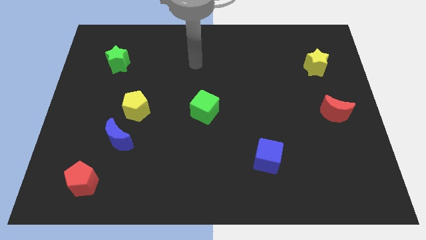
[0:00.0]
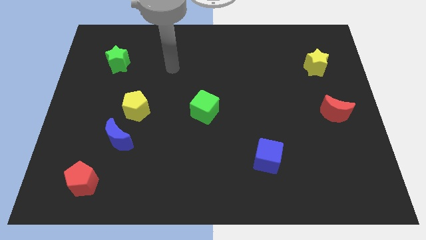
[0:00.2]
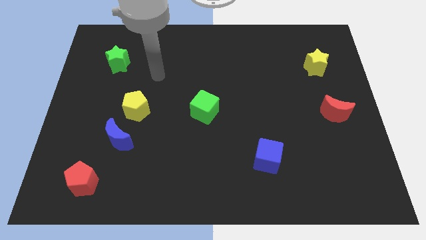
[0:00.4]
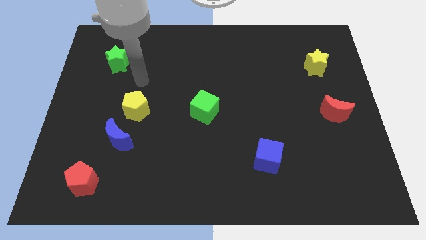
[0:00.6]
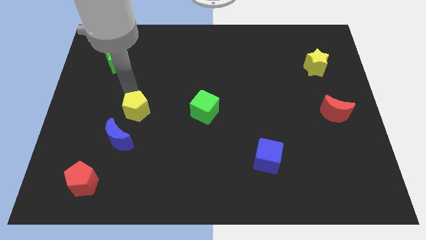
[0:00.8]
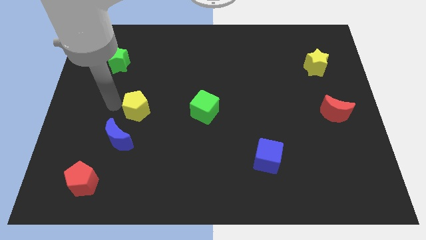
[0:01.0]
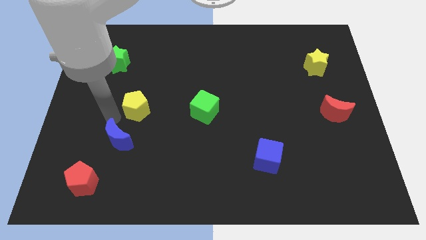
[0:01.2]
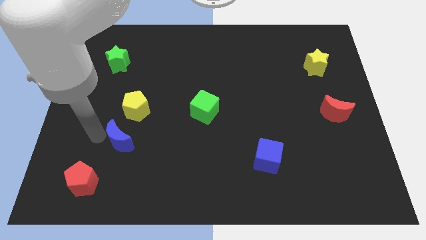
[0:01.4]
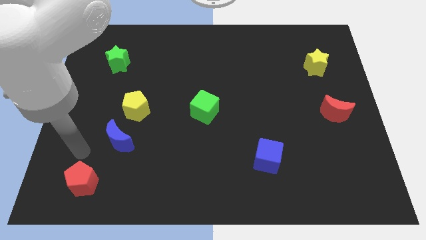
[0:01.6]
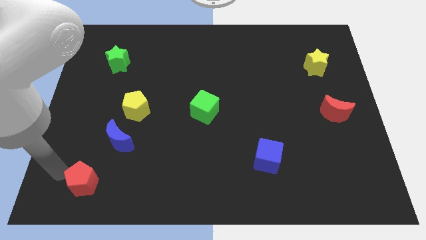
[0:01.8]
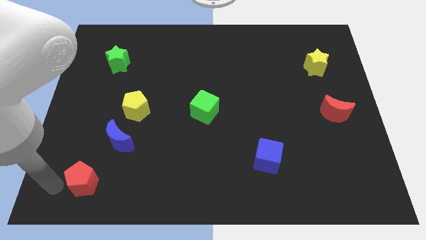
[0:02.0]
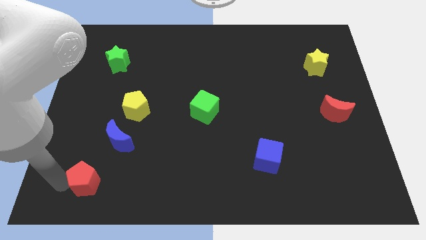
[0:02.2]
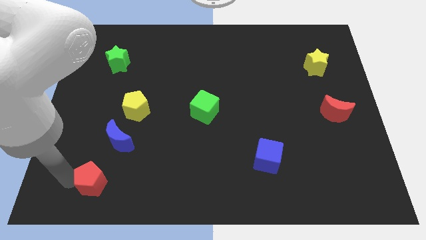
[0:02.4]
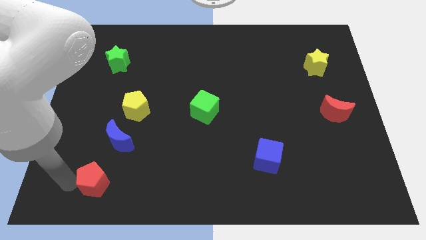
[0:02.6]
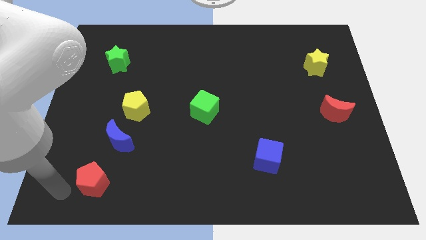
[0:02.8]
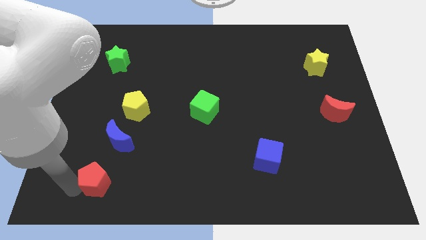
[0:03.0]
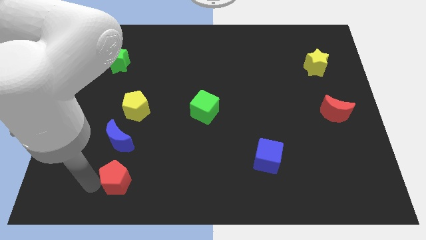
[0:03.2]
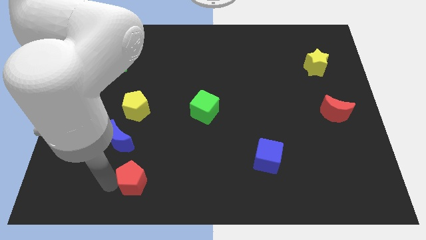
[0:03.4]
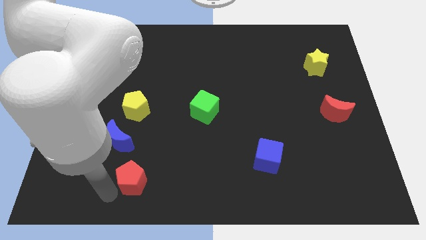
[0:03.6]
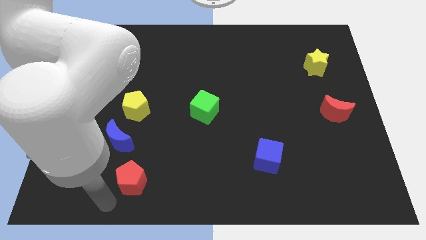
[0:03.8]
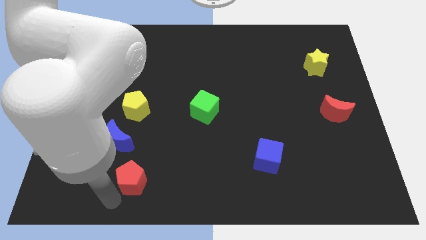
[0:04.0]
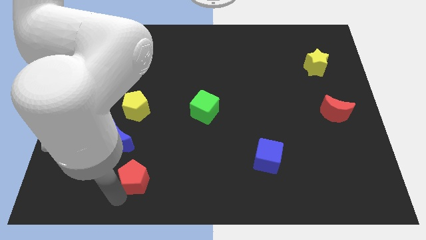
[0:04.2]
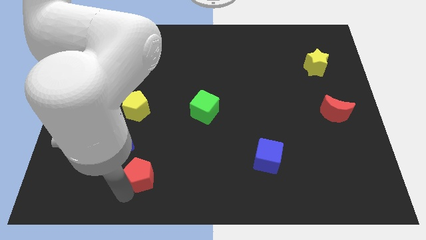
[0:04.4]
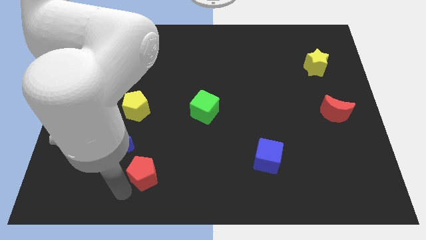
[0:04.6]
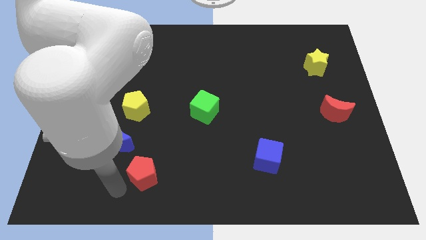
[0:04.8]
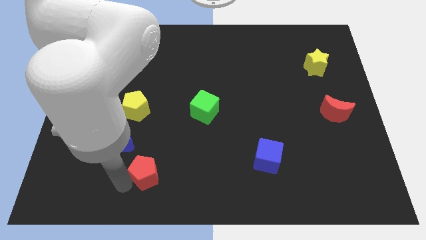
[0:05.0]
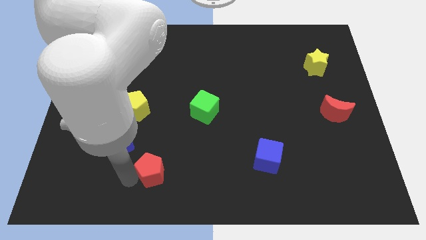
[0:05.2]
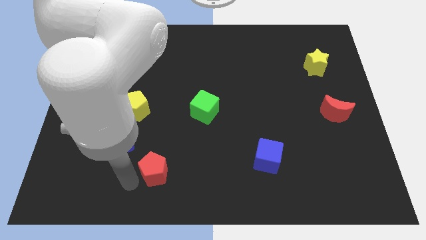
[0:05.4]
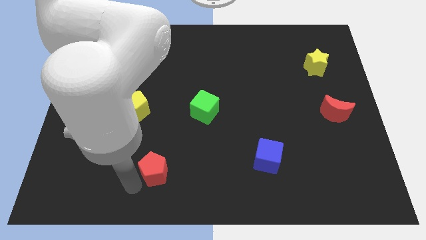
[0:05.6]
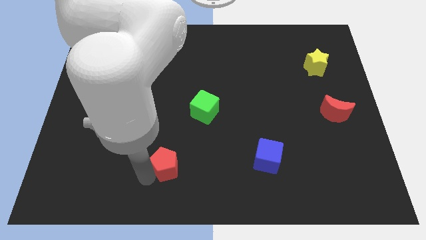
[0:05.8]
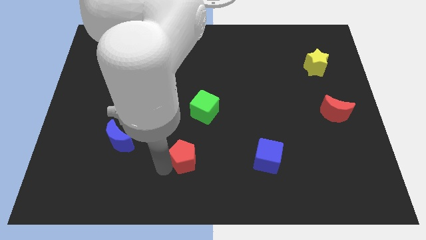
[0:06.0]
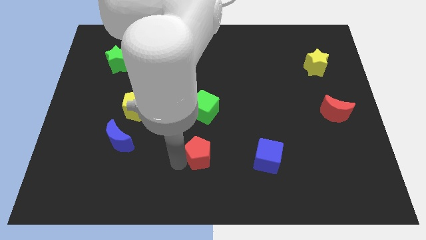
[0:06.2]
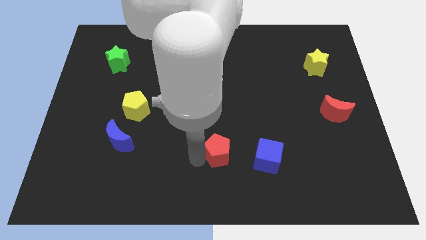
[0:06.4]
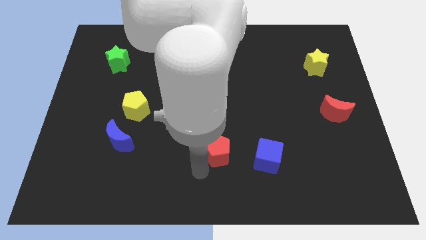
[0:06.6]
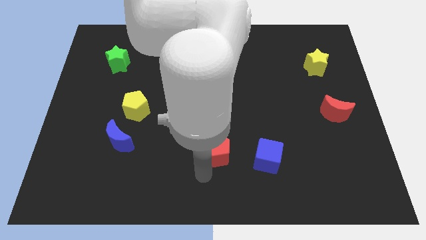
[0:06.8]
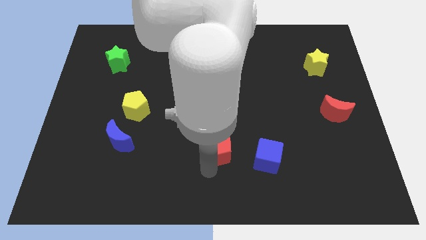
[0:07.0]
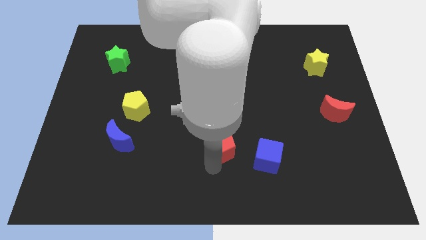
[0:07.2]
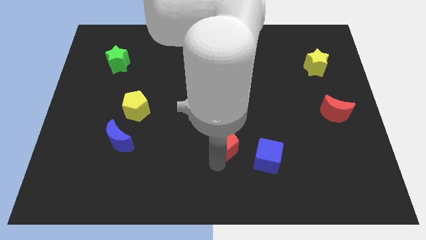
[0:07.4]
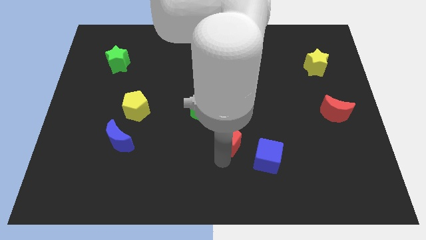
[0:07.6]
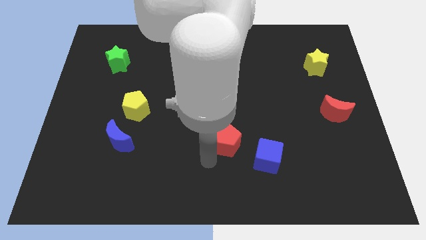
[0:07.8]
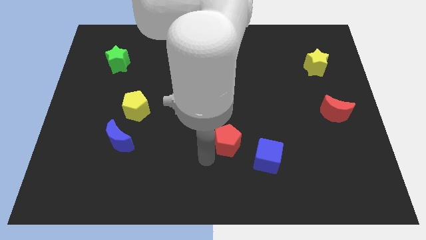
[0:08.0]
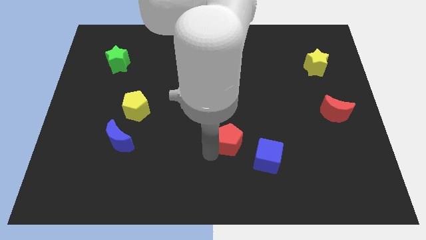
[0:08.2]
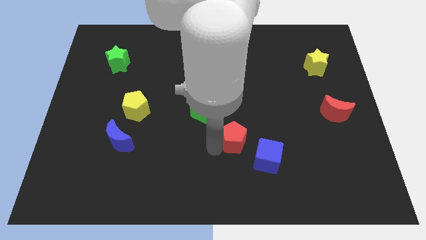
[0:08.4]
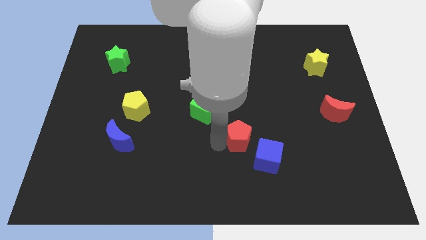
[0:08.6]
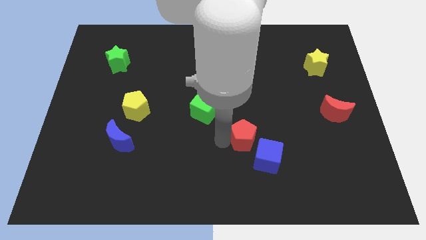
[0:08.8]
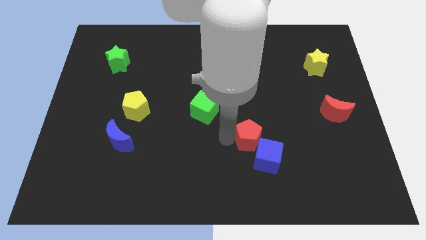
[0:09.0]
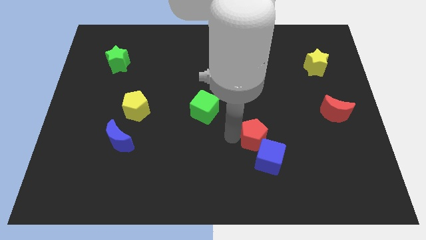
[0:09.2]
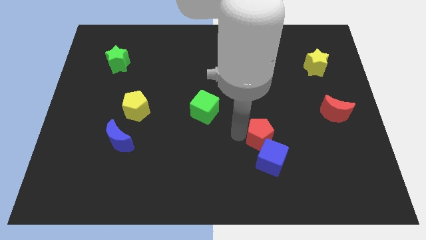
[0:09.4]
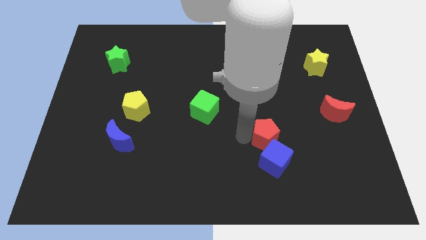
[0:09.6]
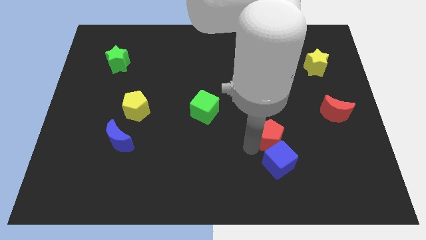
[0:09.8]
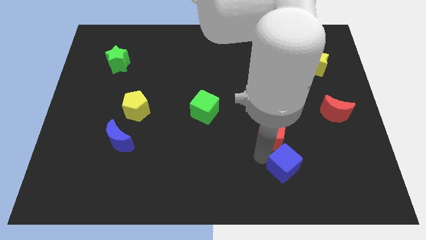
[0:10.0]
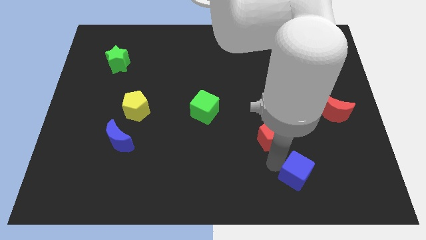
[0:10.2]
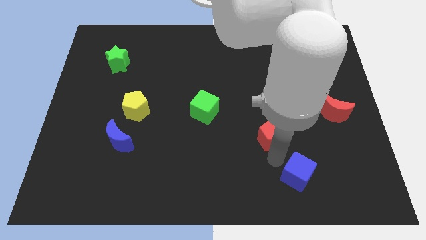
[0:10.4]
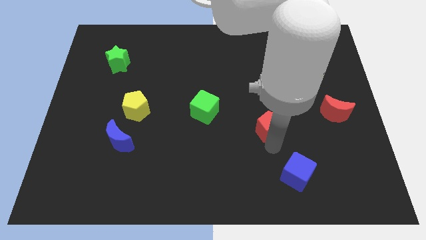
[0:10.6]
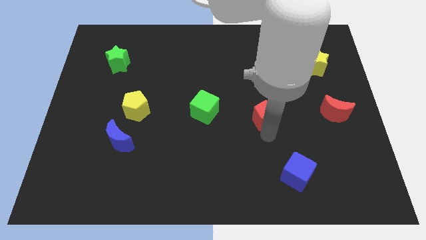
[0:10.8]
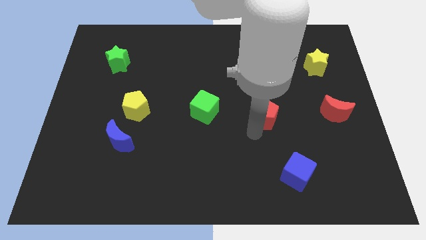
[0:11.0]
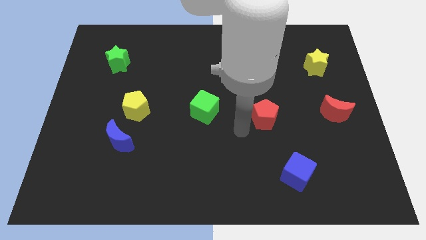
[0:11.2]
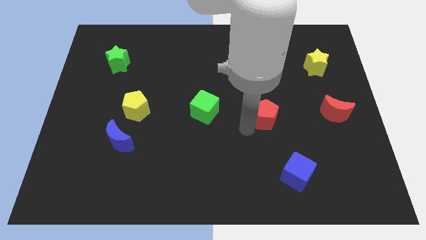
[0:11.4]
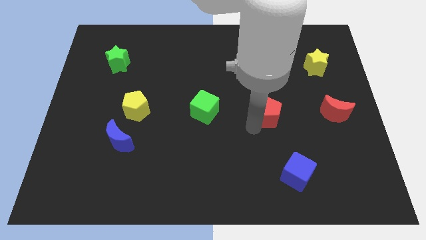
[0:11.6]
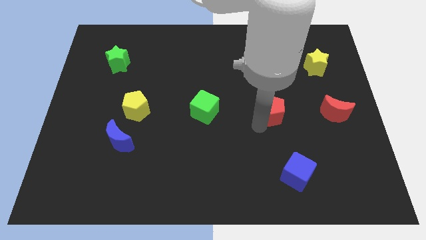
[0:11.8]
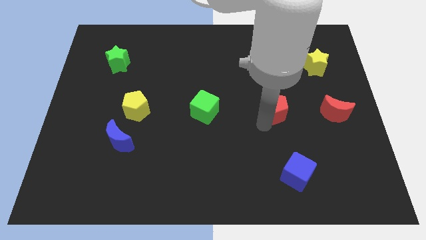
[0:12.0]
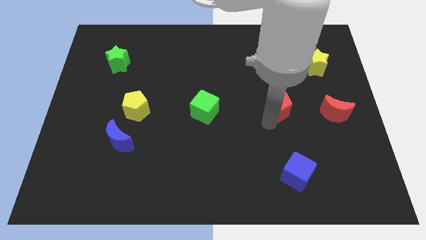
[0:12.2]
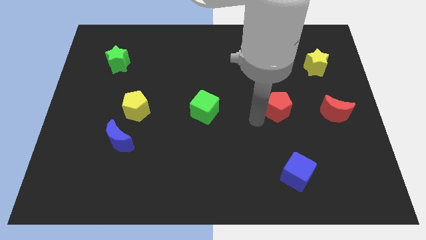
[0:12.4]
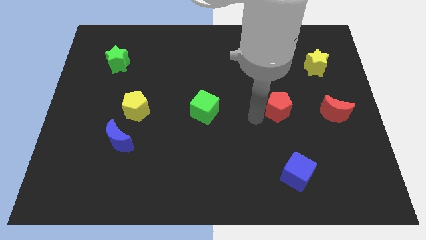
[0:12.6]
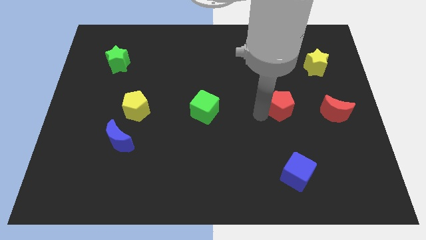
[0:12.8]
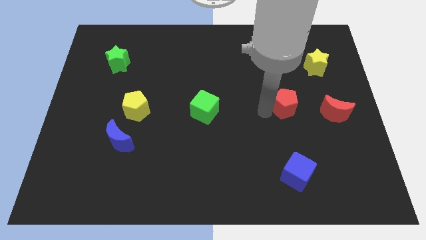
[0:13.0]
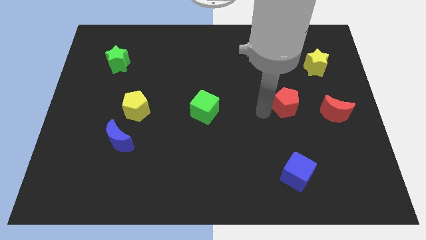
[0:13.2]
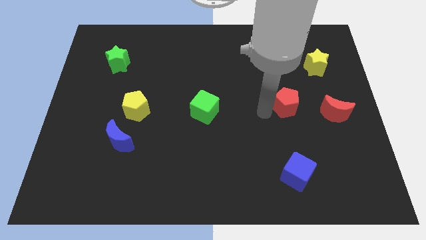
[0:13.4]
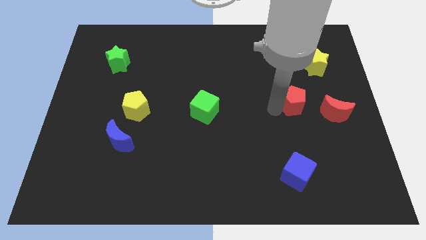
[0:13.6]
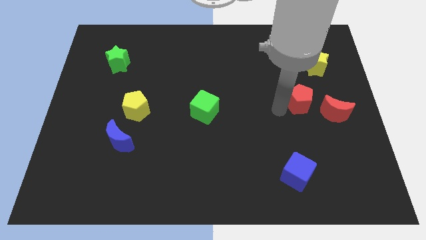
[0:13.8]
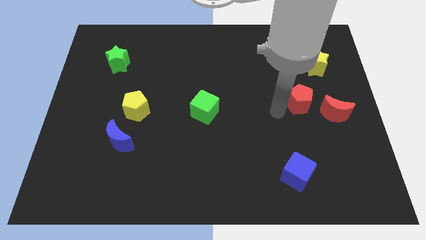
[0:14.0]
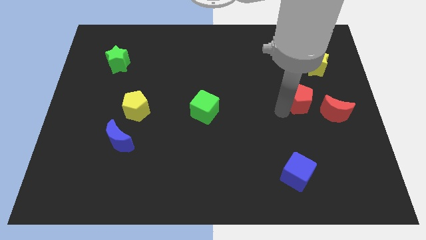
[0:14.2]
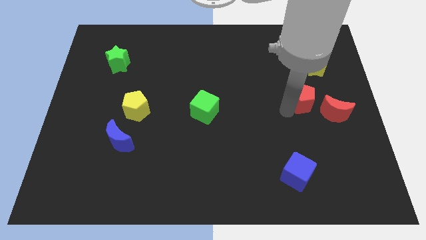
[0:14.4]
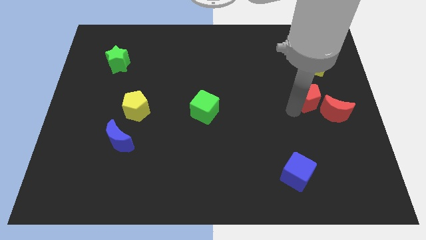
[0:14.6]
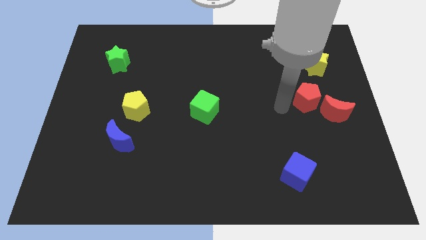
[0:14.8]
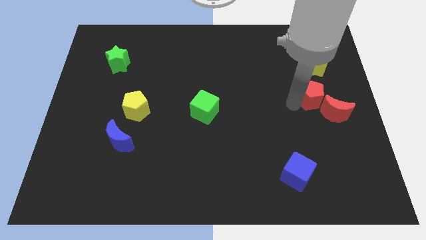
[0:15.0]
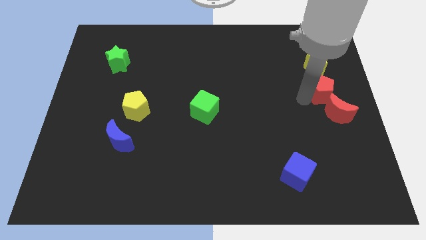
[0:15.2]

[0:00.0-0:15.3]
put the red pentagon to the right side
